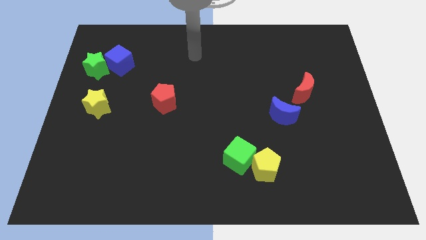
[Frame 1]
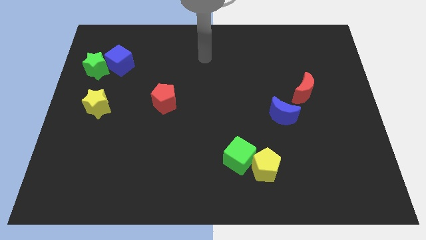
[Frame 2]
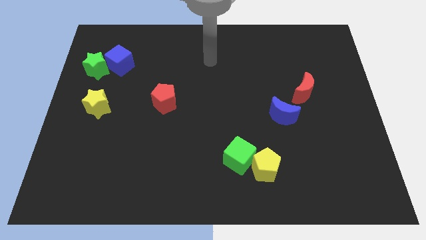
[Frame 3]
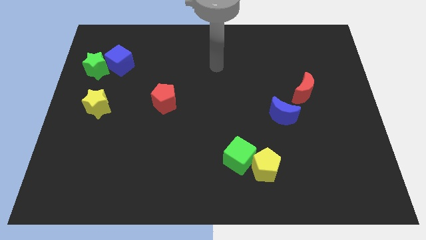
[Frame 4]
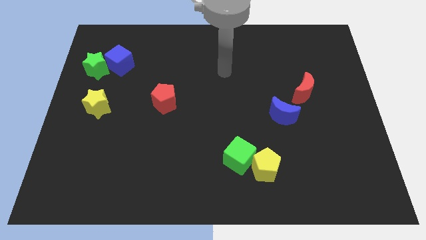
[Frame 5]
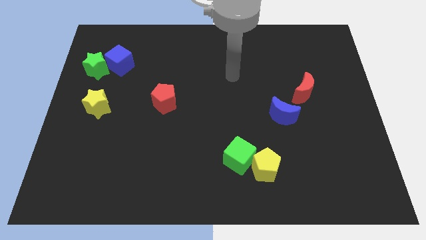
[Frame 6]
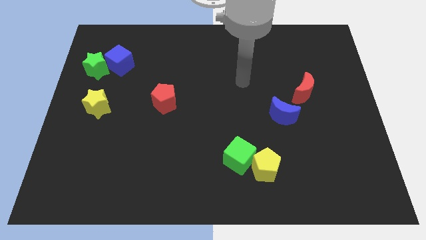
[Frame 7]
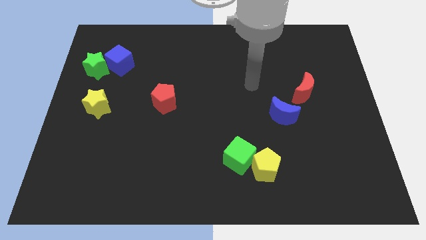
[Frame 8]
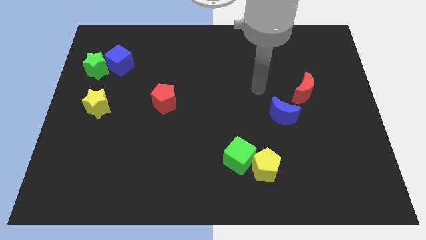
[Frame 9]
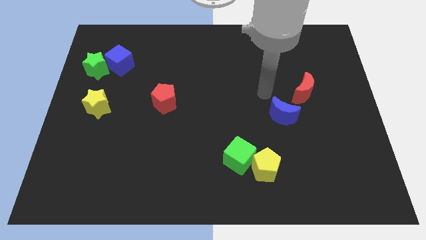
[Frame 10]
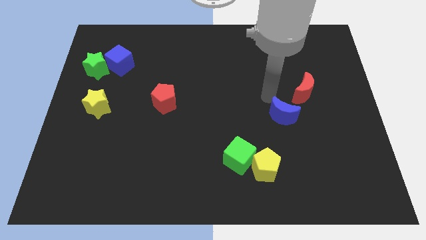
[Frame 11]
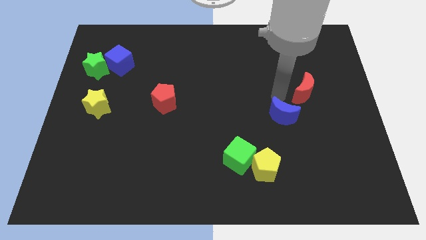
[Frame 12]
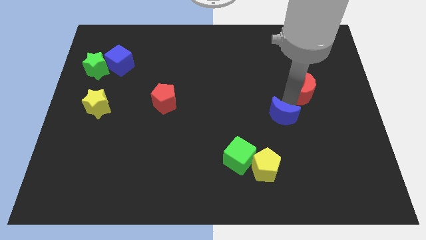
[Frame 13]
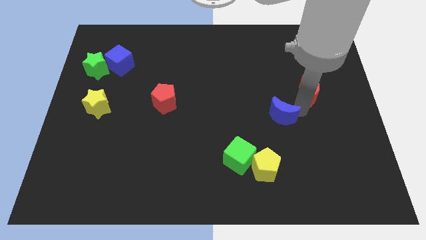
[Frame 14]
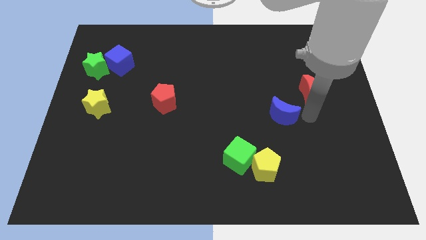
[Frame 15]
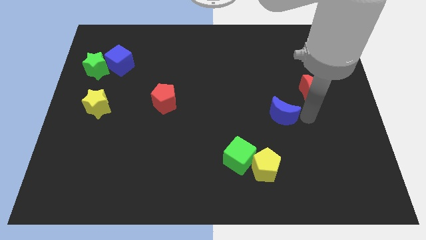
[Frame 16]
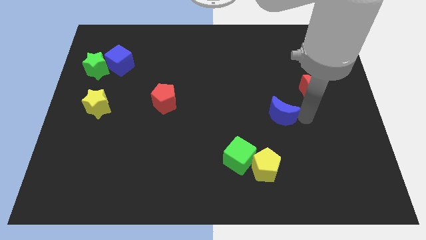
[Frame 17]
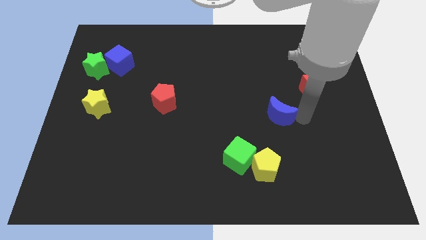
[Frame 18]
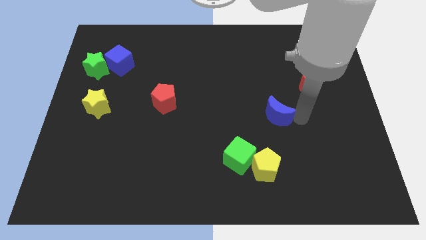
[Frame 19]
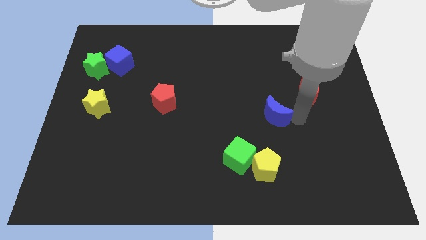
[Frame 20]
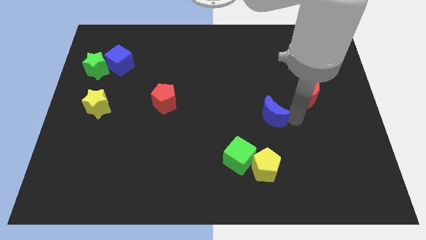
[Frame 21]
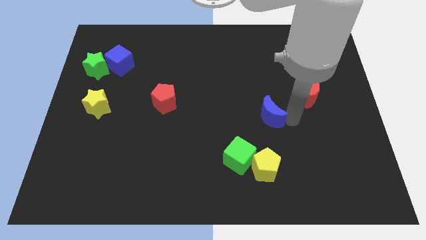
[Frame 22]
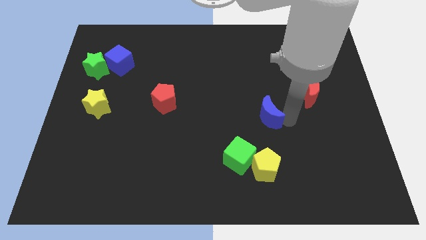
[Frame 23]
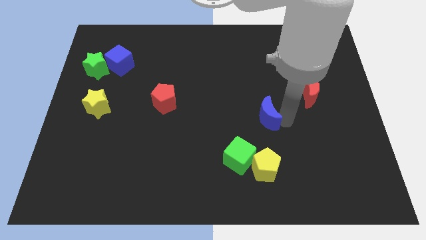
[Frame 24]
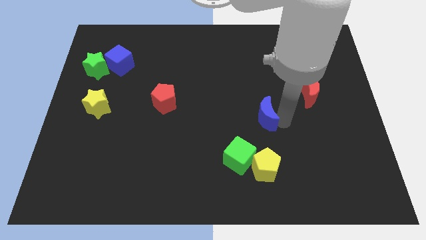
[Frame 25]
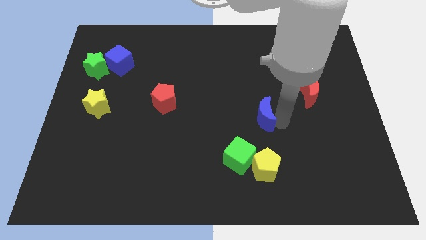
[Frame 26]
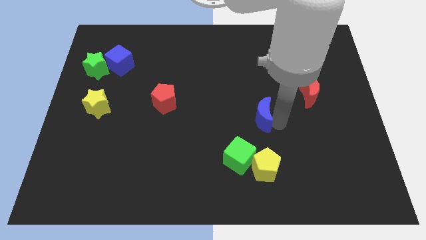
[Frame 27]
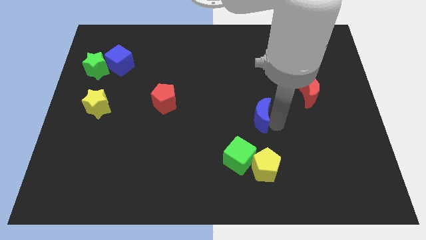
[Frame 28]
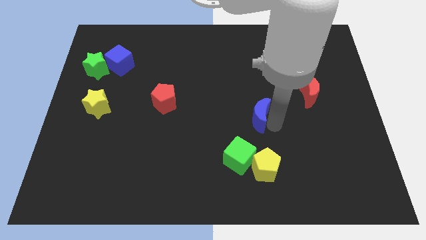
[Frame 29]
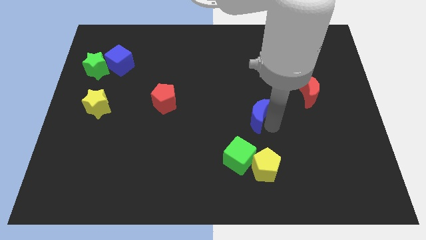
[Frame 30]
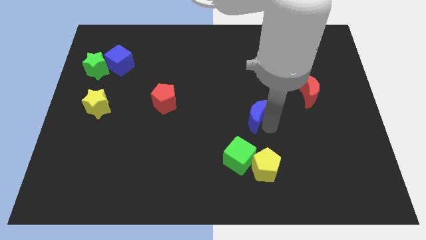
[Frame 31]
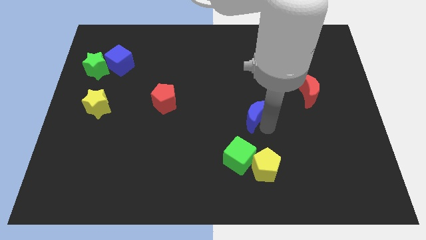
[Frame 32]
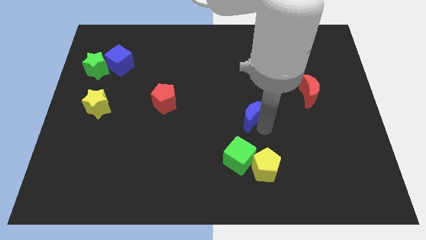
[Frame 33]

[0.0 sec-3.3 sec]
move the blue moon somewhat to the left

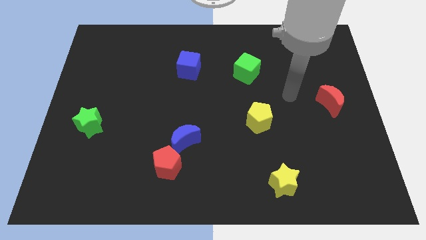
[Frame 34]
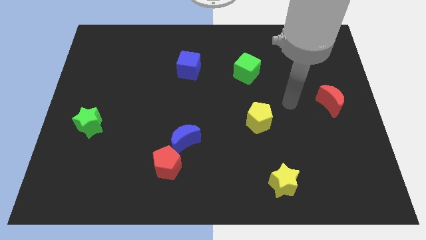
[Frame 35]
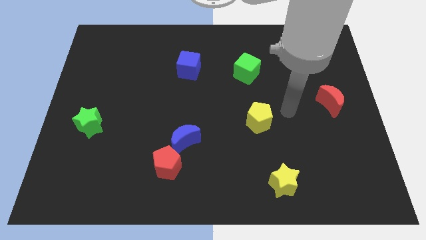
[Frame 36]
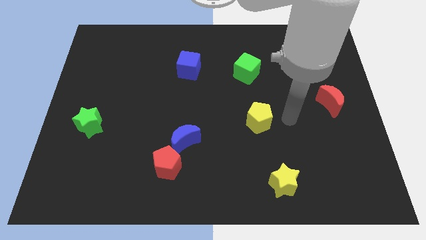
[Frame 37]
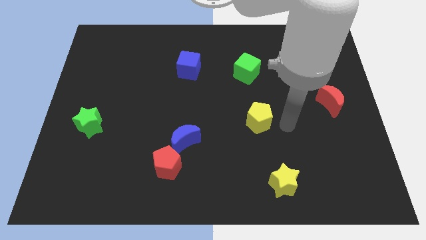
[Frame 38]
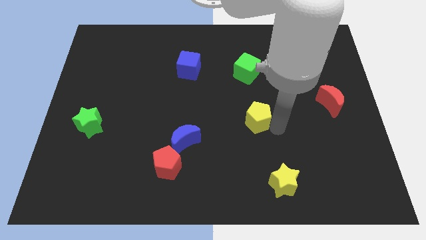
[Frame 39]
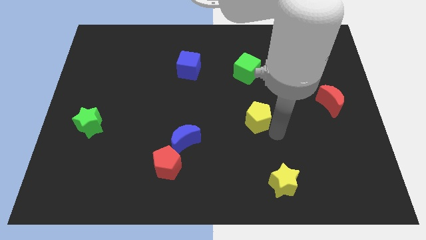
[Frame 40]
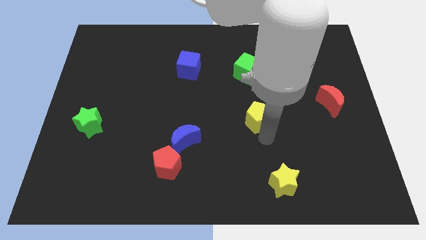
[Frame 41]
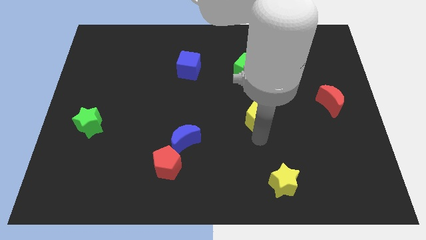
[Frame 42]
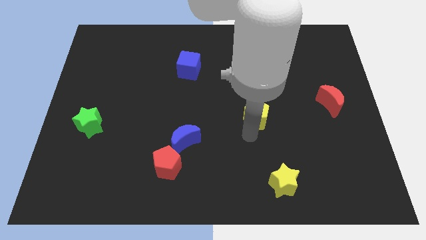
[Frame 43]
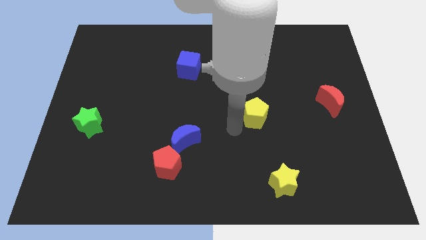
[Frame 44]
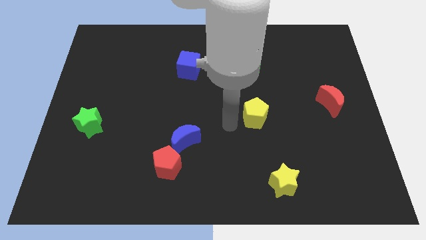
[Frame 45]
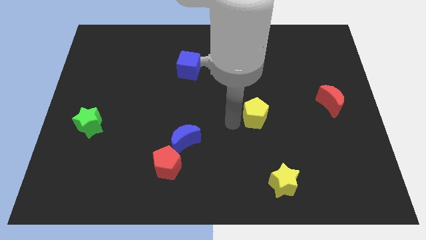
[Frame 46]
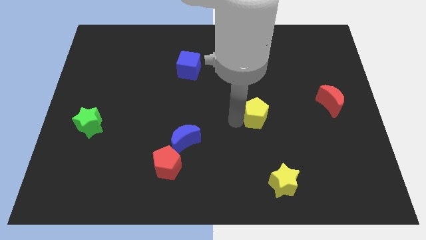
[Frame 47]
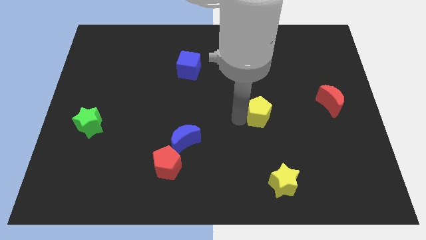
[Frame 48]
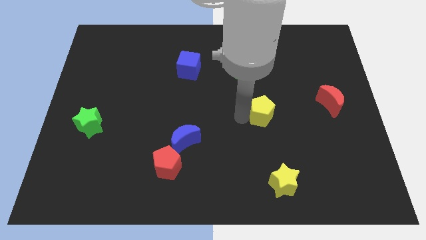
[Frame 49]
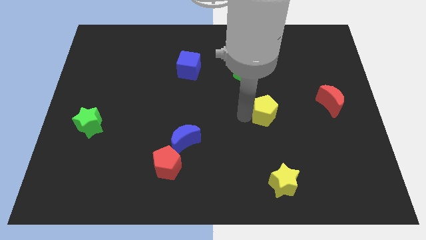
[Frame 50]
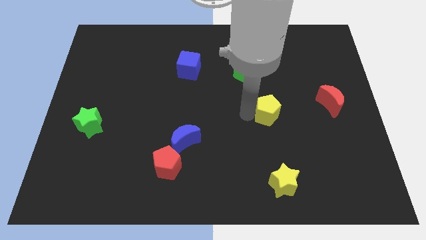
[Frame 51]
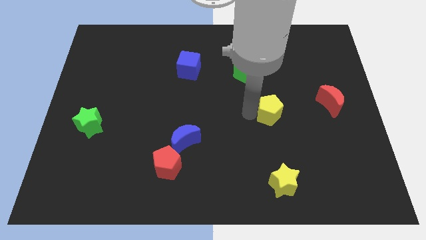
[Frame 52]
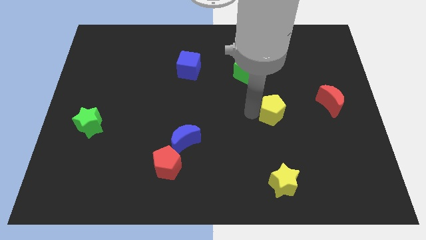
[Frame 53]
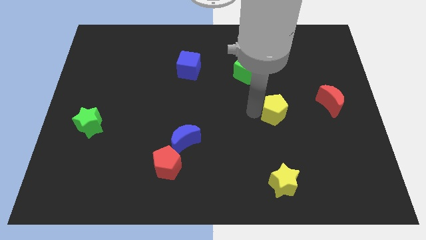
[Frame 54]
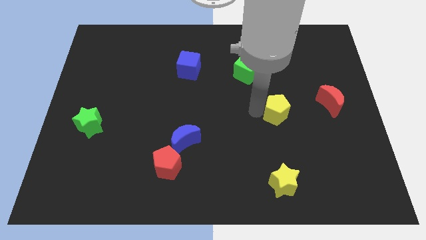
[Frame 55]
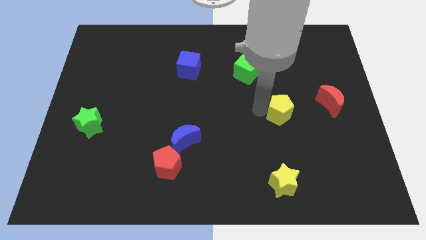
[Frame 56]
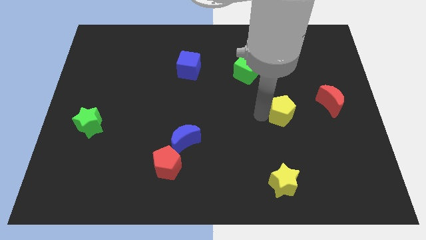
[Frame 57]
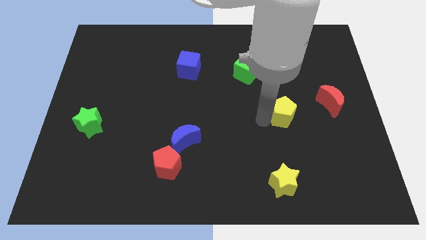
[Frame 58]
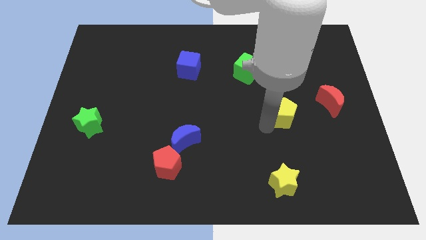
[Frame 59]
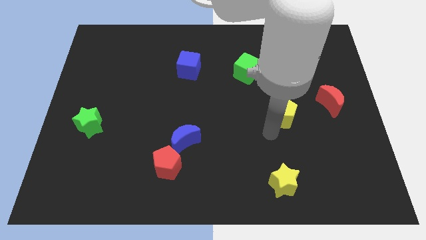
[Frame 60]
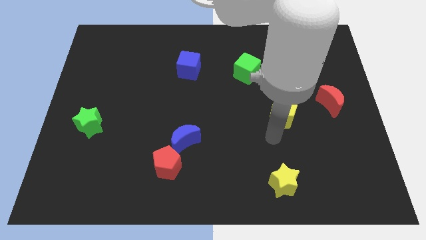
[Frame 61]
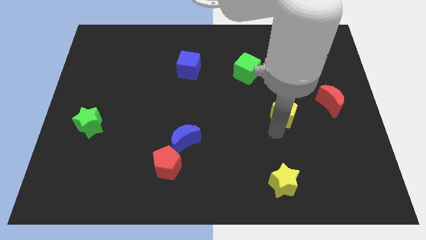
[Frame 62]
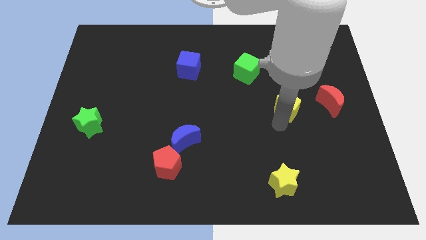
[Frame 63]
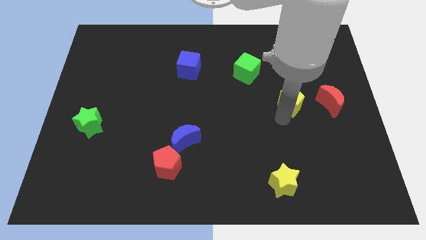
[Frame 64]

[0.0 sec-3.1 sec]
slightly push the yellow pentagon upwards and right

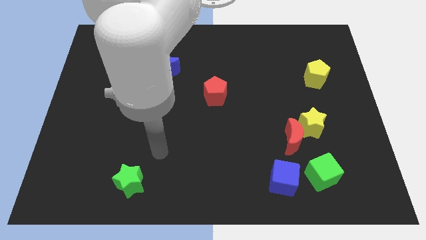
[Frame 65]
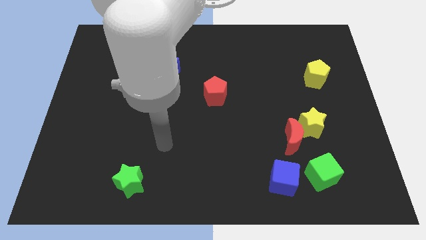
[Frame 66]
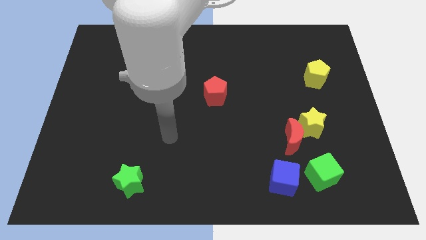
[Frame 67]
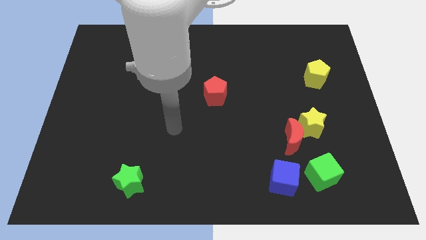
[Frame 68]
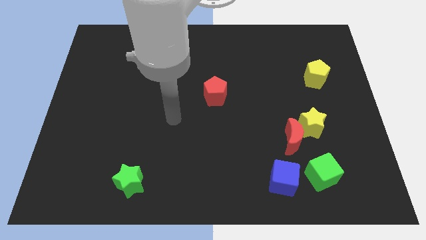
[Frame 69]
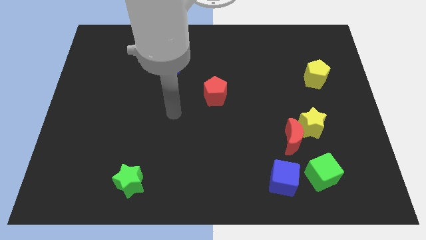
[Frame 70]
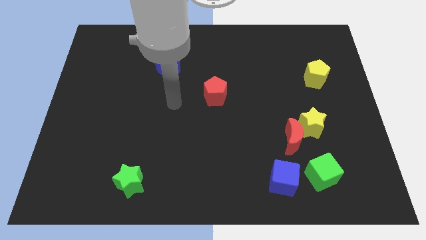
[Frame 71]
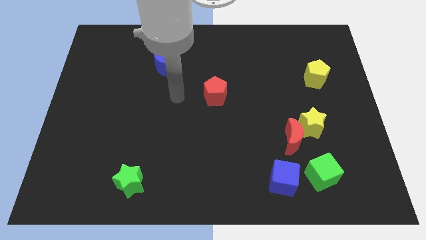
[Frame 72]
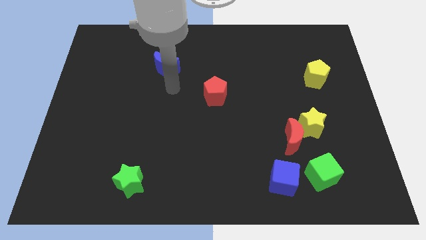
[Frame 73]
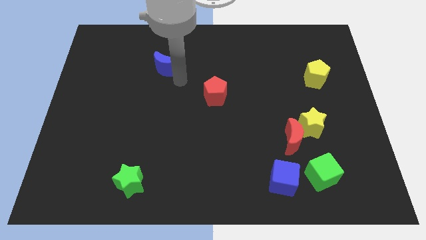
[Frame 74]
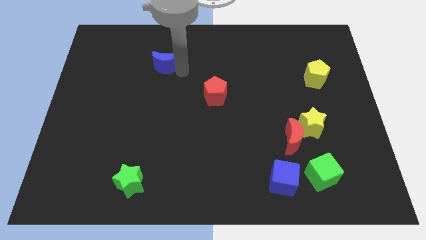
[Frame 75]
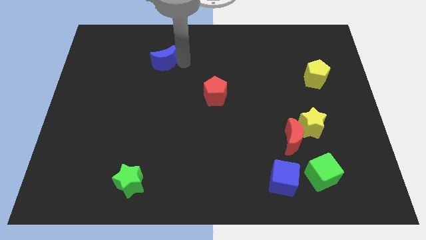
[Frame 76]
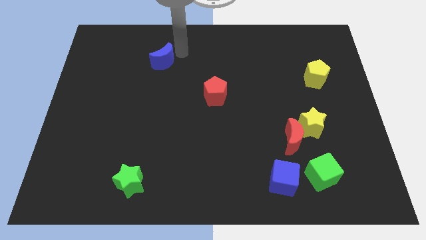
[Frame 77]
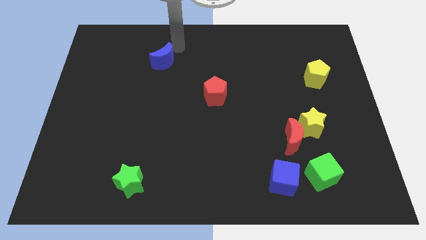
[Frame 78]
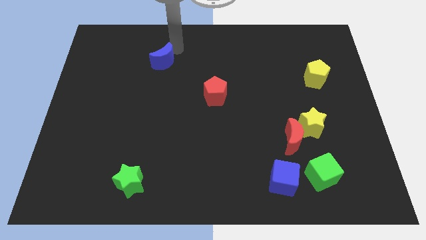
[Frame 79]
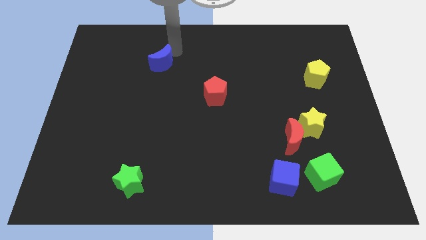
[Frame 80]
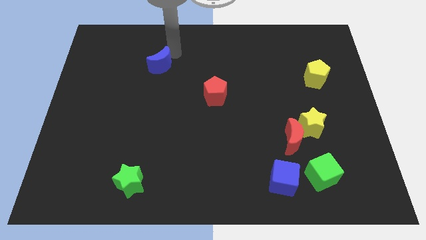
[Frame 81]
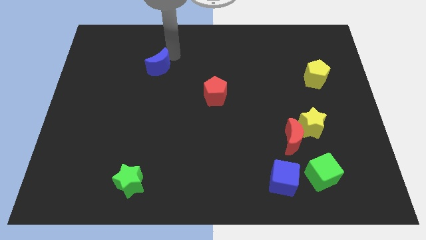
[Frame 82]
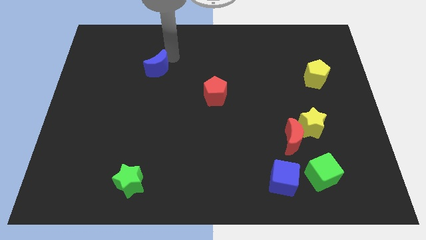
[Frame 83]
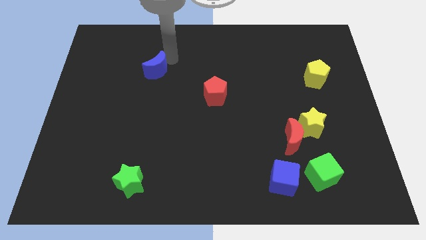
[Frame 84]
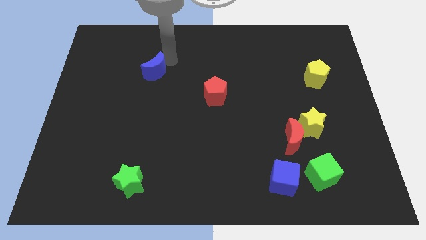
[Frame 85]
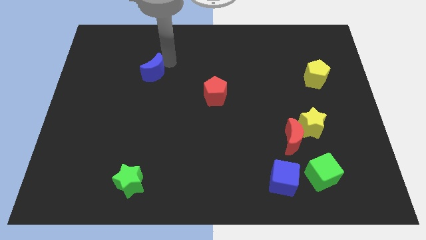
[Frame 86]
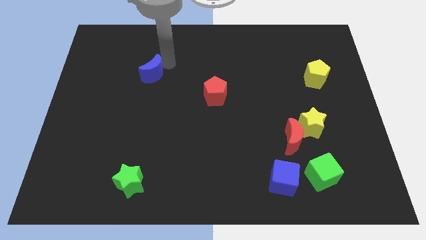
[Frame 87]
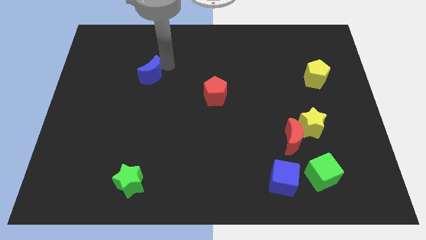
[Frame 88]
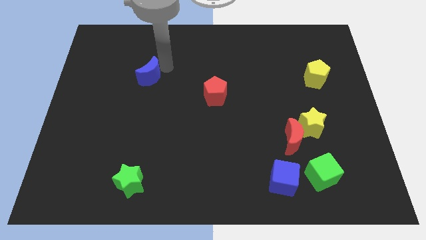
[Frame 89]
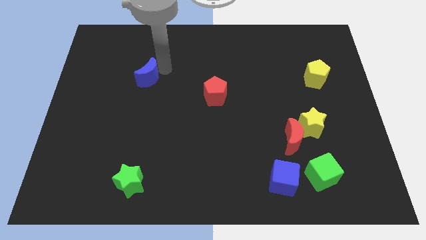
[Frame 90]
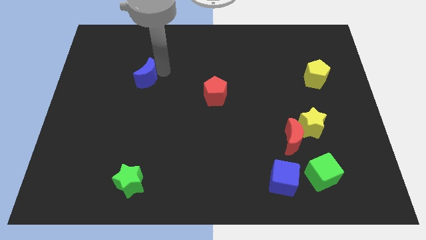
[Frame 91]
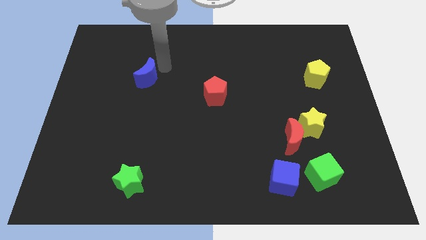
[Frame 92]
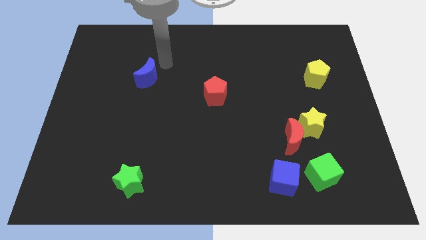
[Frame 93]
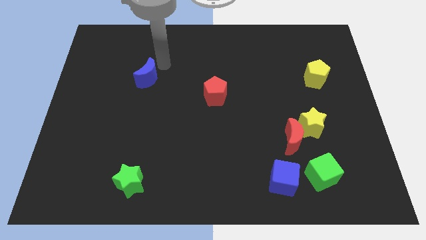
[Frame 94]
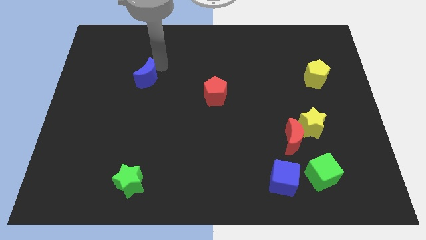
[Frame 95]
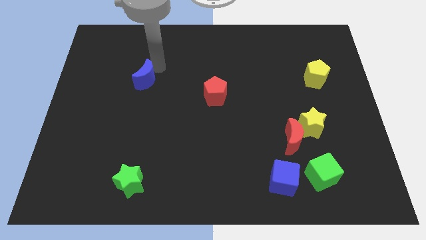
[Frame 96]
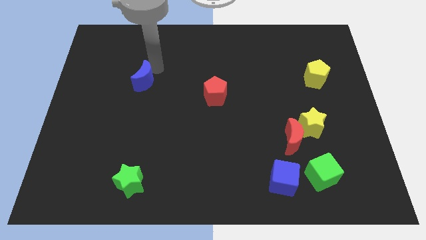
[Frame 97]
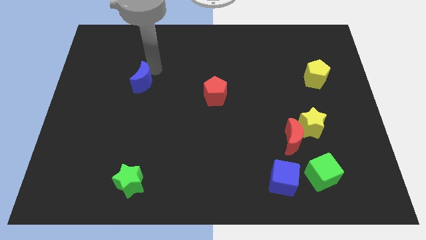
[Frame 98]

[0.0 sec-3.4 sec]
slide the blue moon downwards and to the left diagonally a little
